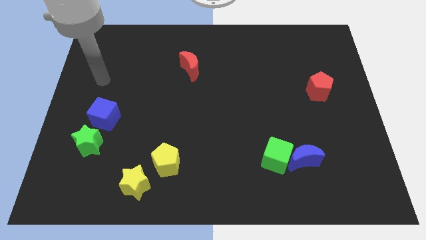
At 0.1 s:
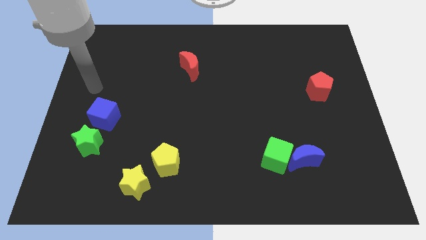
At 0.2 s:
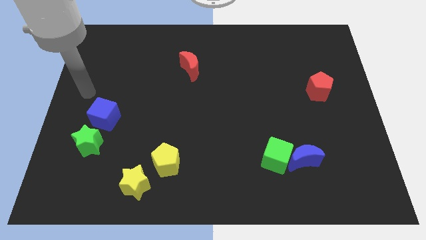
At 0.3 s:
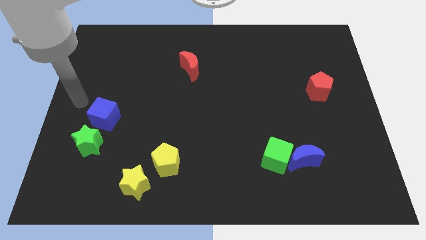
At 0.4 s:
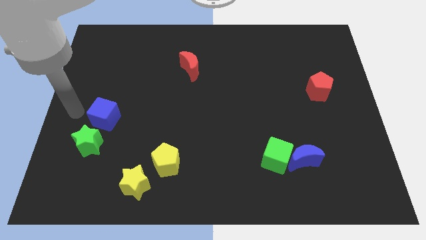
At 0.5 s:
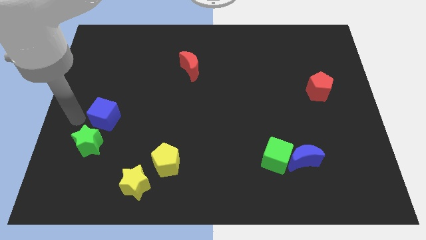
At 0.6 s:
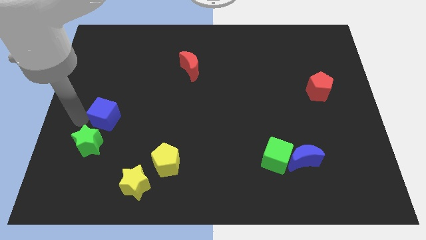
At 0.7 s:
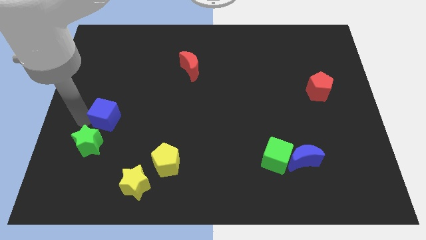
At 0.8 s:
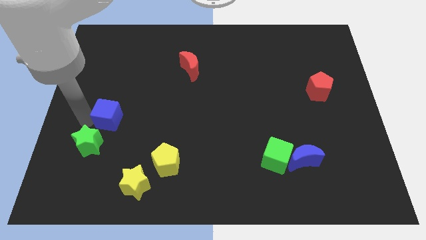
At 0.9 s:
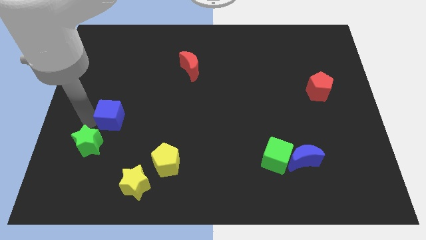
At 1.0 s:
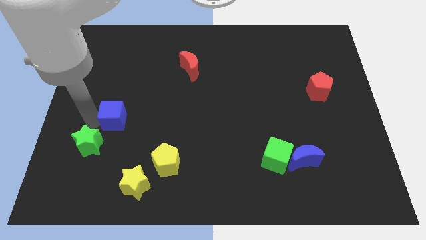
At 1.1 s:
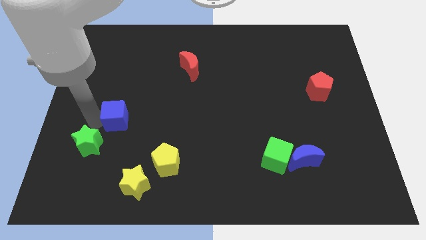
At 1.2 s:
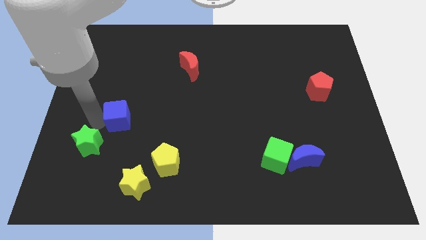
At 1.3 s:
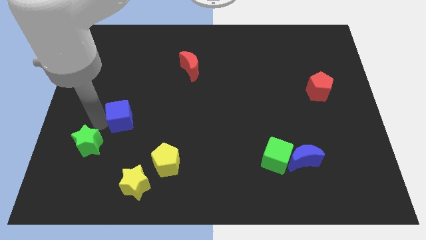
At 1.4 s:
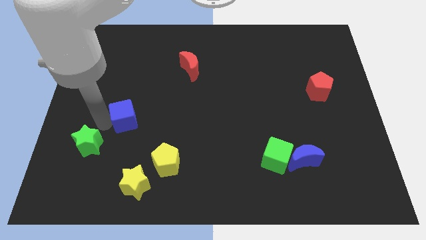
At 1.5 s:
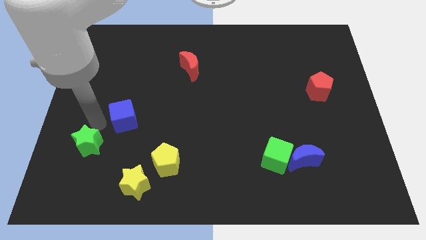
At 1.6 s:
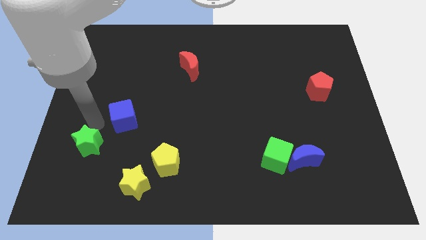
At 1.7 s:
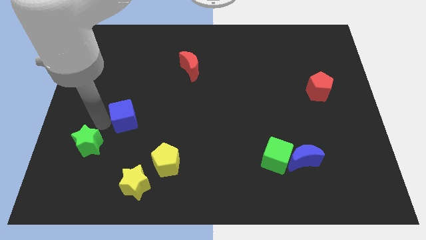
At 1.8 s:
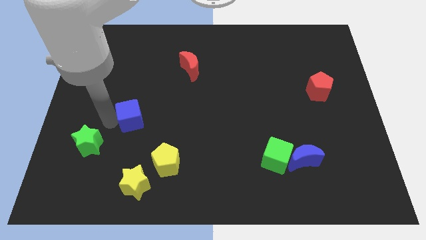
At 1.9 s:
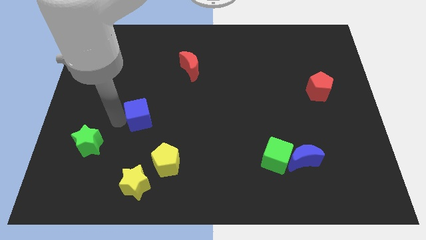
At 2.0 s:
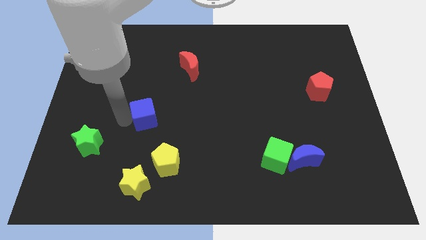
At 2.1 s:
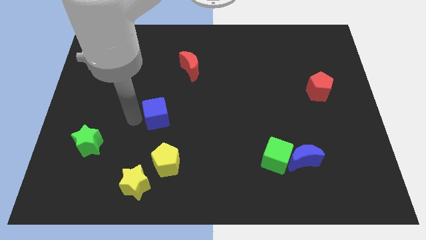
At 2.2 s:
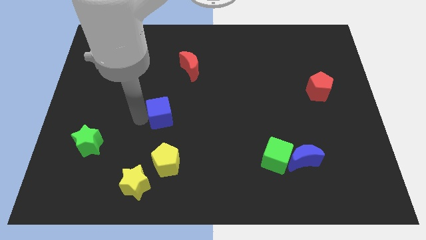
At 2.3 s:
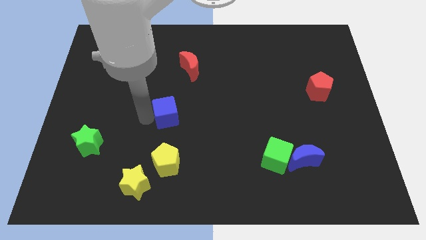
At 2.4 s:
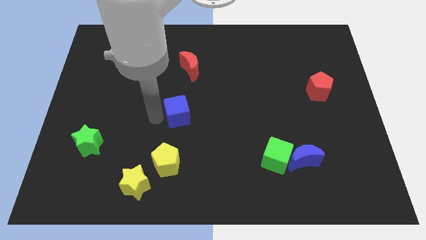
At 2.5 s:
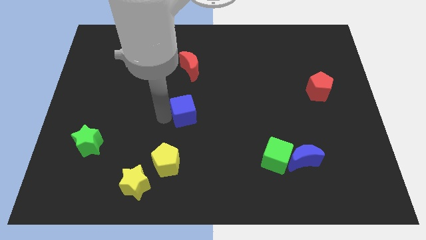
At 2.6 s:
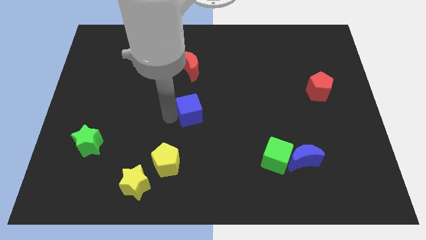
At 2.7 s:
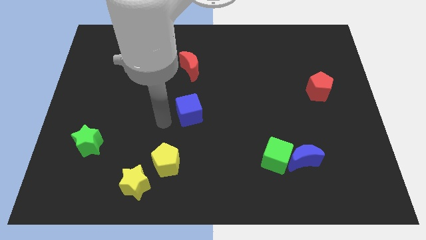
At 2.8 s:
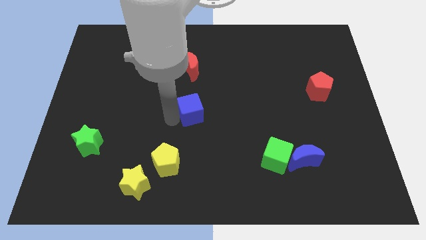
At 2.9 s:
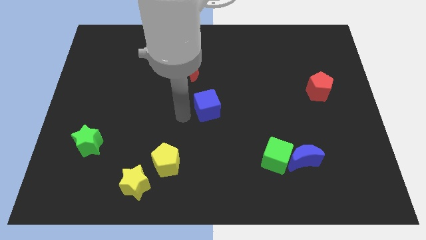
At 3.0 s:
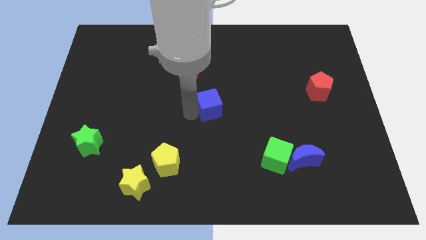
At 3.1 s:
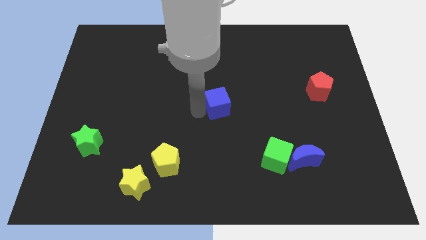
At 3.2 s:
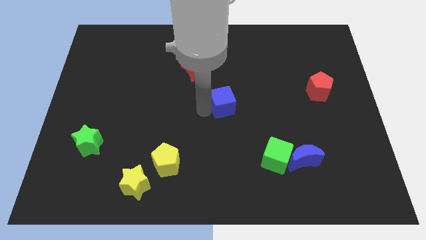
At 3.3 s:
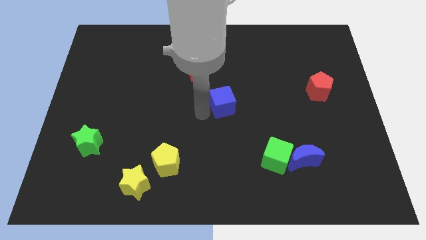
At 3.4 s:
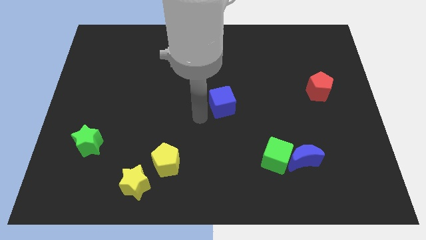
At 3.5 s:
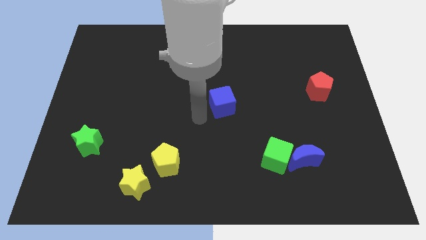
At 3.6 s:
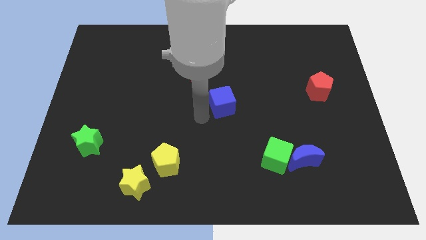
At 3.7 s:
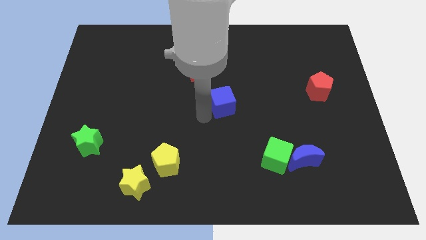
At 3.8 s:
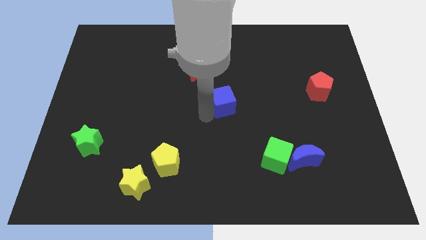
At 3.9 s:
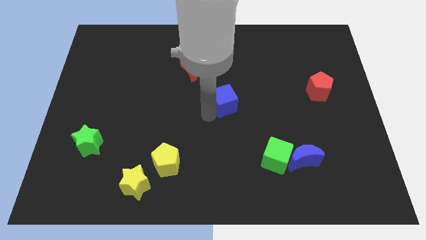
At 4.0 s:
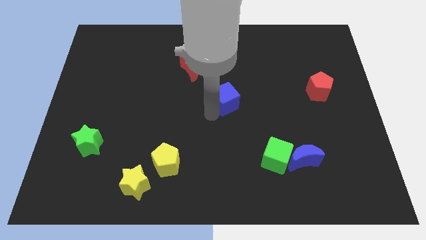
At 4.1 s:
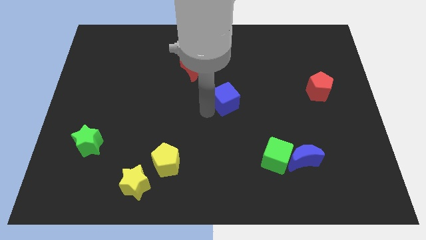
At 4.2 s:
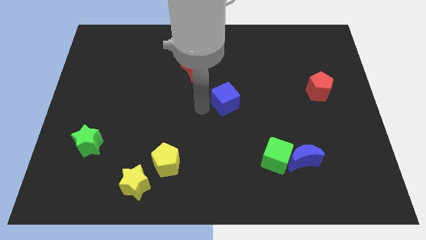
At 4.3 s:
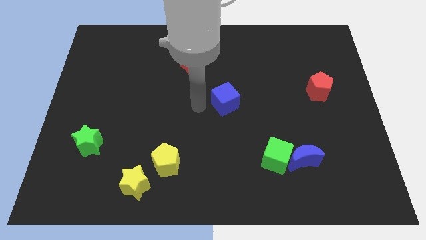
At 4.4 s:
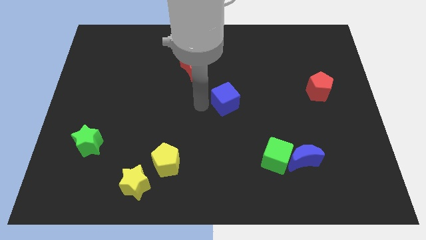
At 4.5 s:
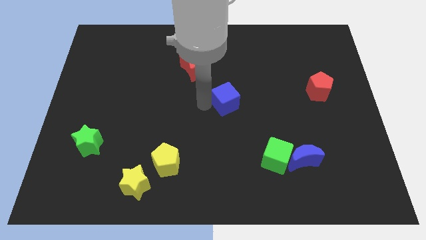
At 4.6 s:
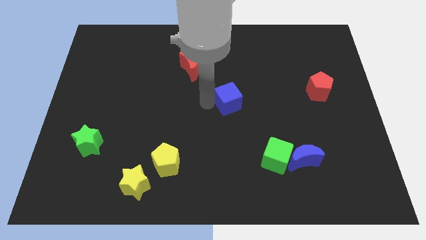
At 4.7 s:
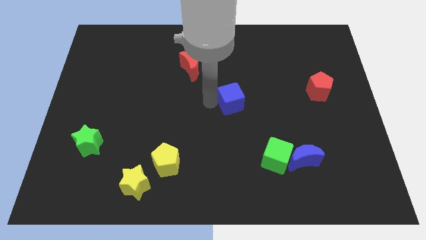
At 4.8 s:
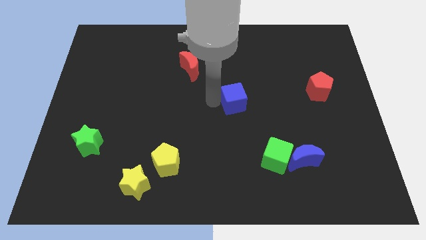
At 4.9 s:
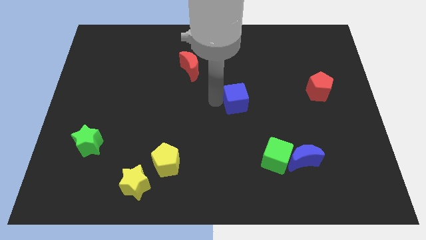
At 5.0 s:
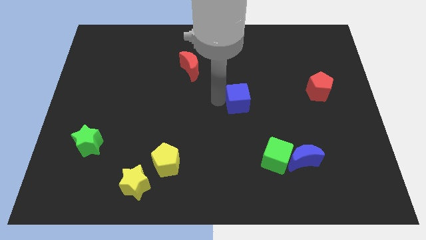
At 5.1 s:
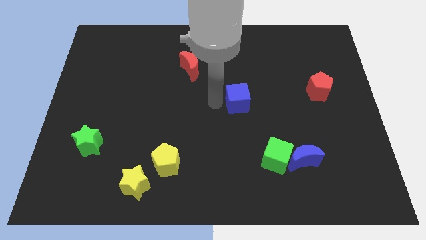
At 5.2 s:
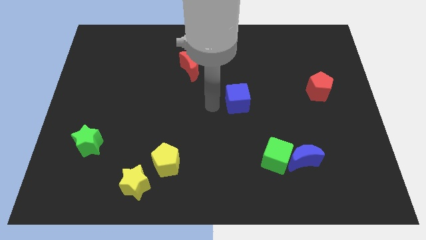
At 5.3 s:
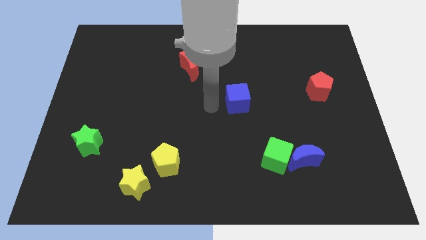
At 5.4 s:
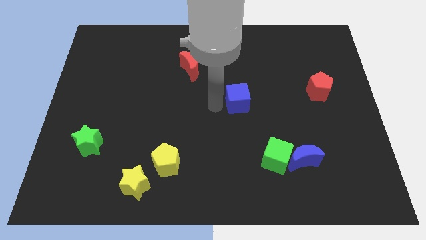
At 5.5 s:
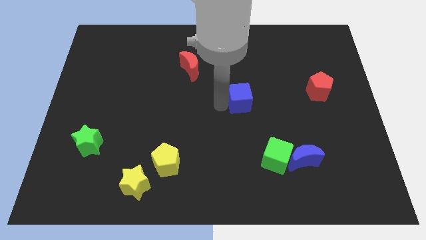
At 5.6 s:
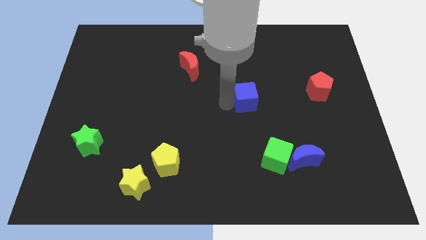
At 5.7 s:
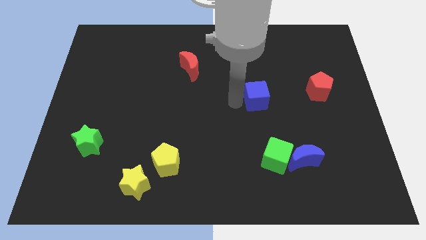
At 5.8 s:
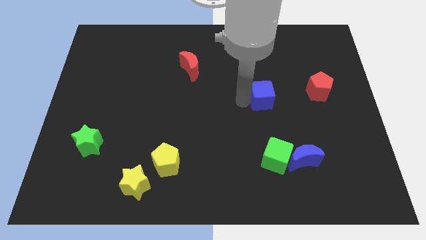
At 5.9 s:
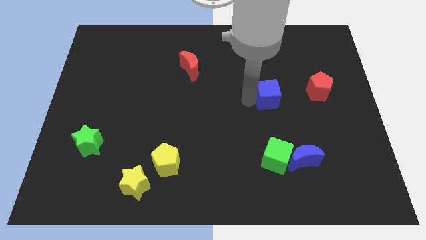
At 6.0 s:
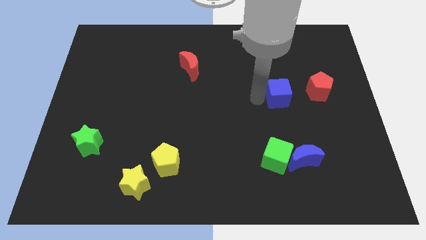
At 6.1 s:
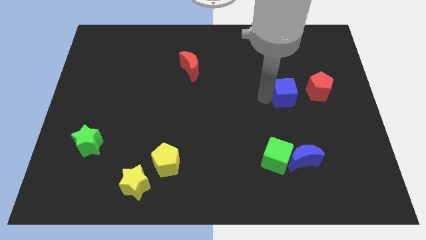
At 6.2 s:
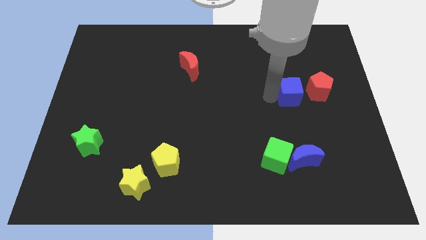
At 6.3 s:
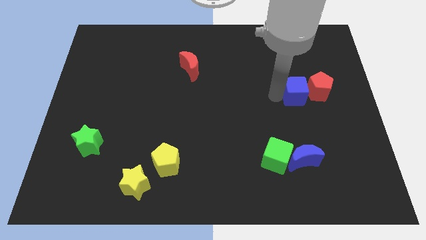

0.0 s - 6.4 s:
slide the blue cube towards the red pentagon

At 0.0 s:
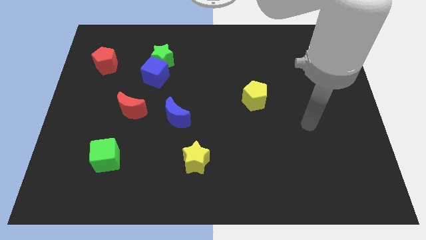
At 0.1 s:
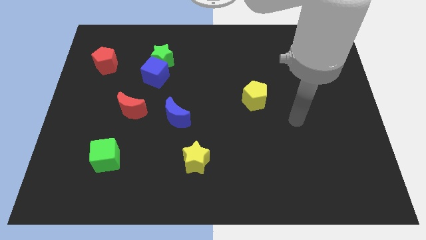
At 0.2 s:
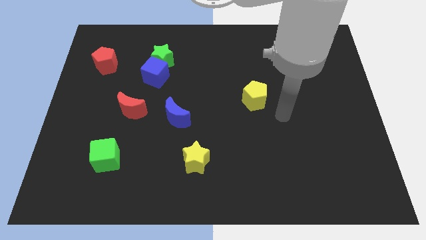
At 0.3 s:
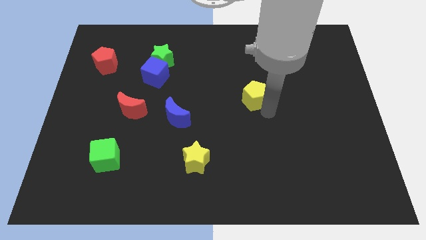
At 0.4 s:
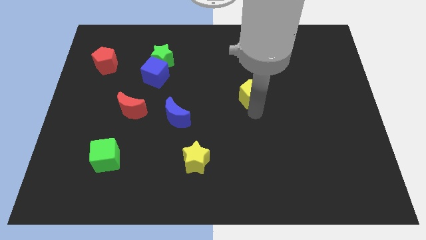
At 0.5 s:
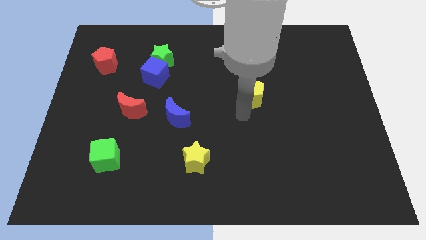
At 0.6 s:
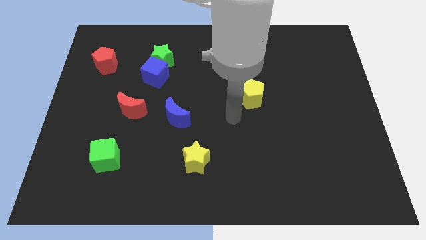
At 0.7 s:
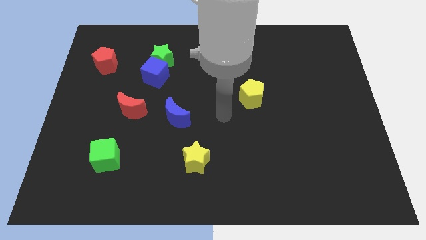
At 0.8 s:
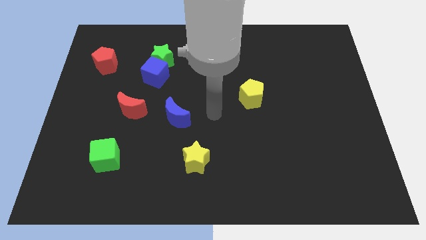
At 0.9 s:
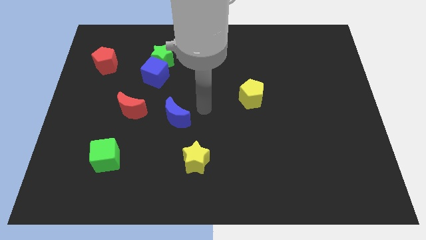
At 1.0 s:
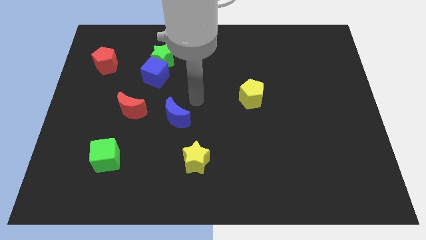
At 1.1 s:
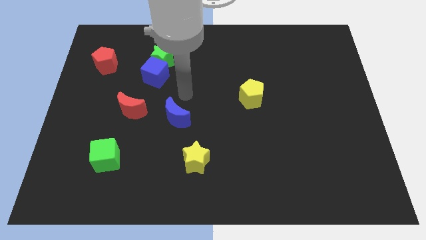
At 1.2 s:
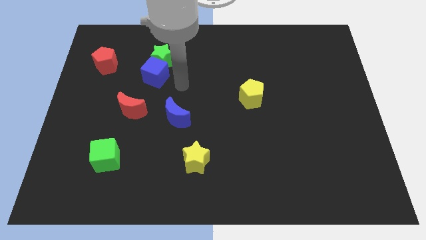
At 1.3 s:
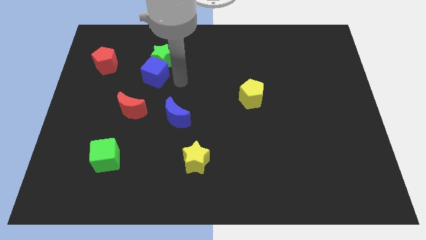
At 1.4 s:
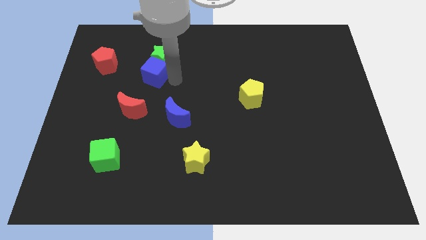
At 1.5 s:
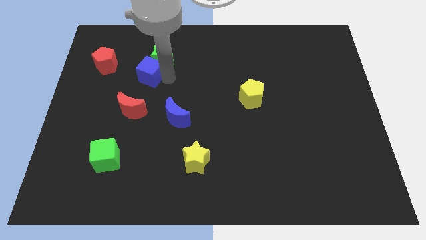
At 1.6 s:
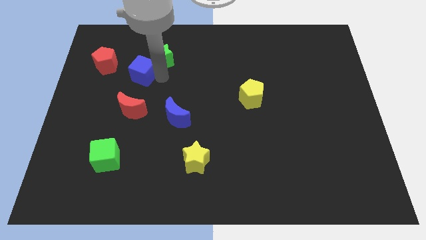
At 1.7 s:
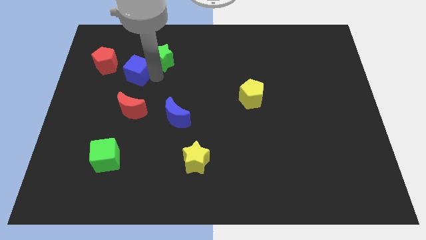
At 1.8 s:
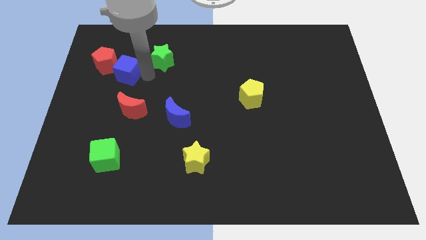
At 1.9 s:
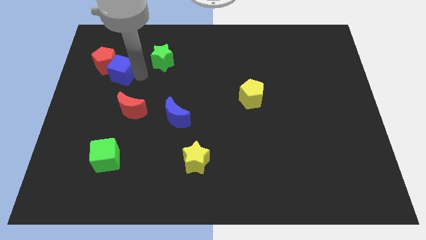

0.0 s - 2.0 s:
move the blue cube to the red pentagon
